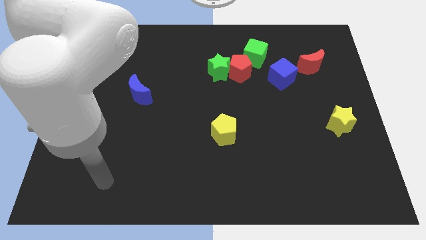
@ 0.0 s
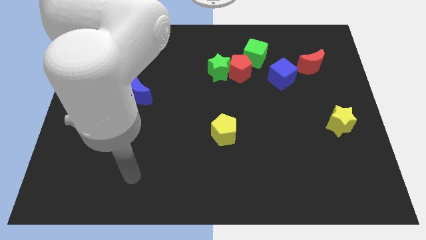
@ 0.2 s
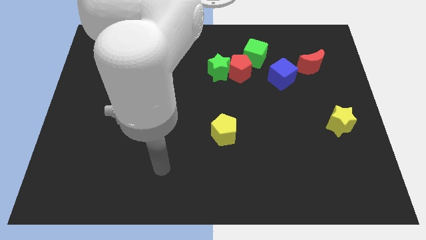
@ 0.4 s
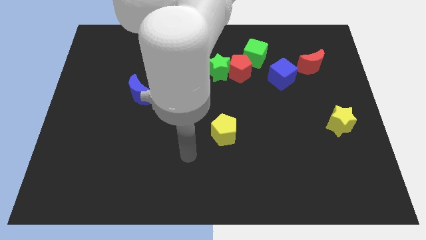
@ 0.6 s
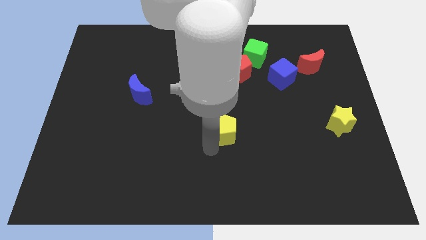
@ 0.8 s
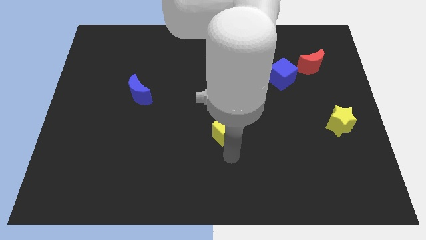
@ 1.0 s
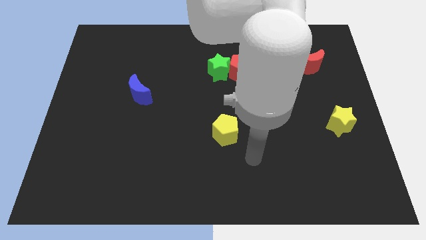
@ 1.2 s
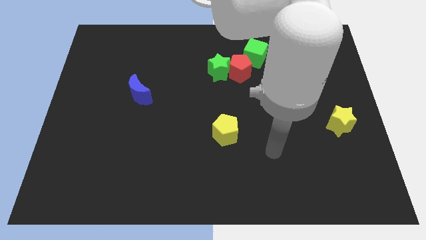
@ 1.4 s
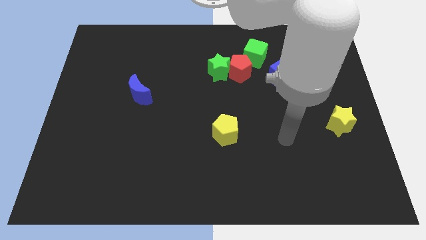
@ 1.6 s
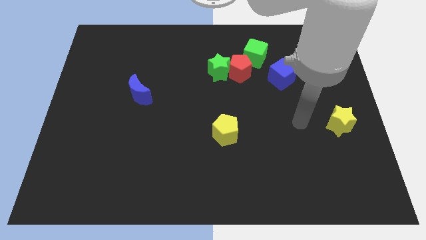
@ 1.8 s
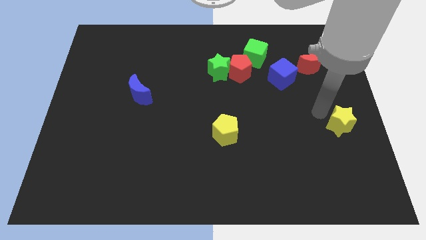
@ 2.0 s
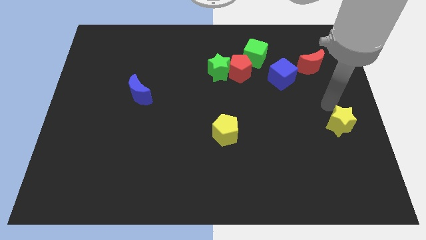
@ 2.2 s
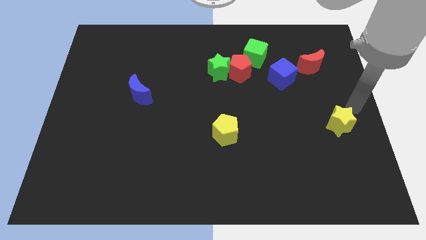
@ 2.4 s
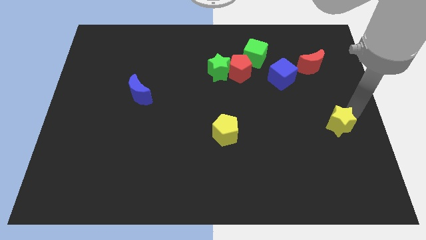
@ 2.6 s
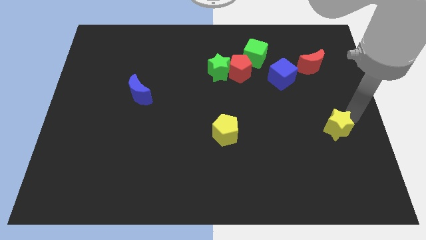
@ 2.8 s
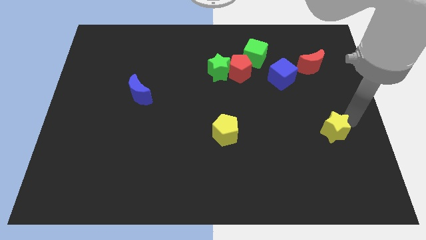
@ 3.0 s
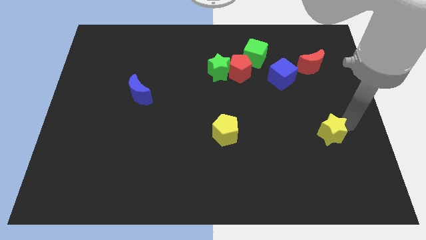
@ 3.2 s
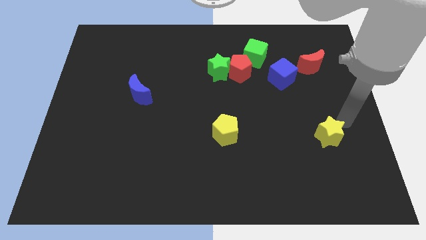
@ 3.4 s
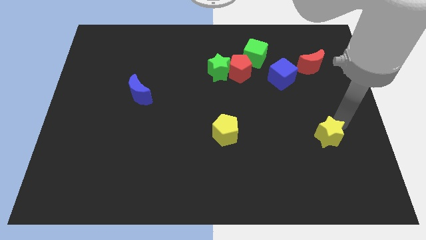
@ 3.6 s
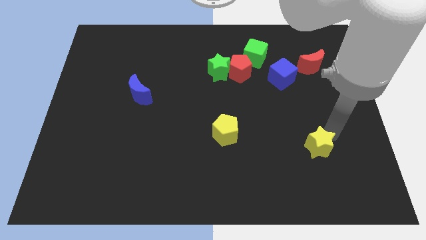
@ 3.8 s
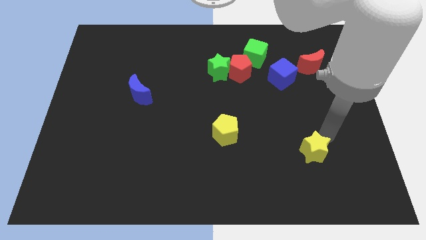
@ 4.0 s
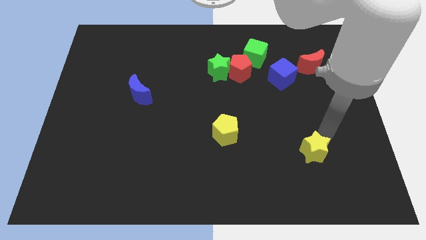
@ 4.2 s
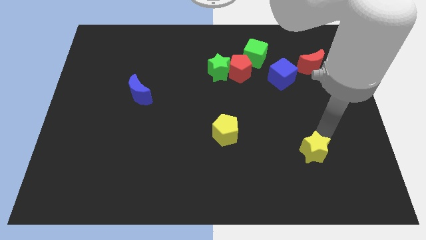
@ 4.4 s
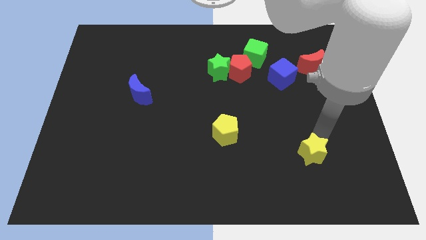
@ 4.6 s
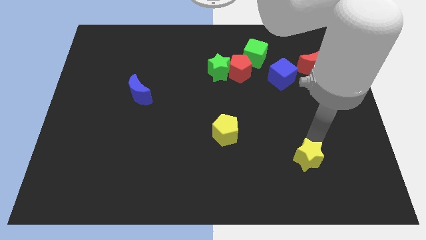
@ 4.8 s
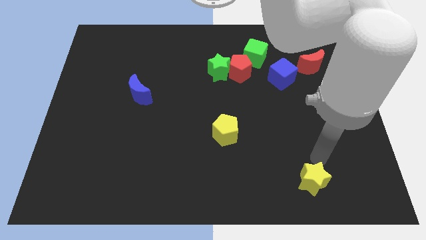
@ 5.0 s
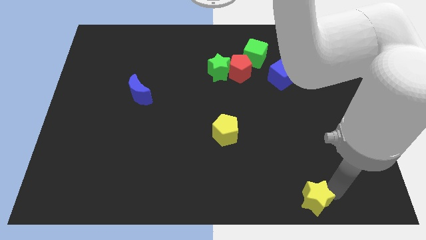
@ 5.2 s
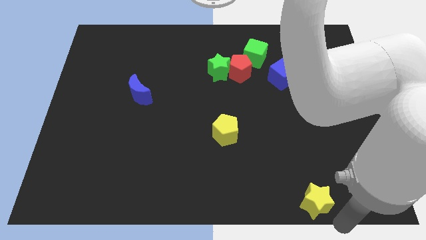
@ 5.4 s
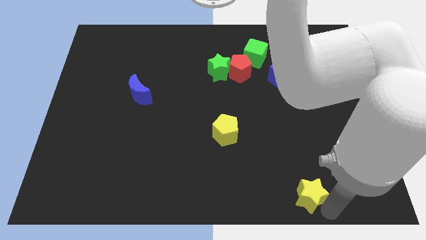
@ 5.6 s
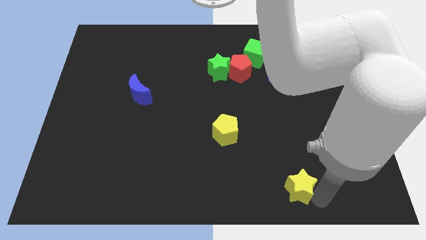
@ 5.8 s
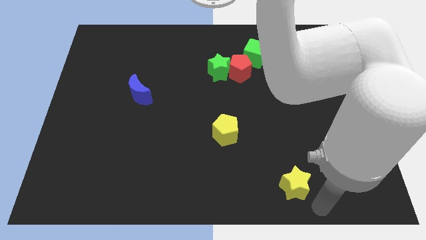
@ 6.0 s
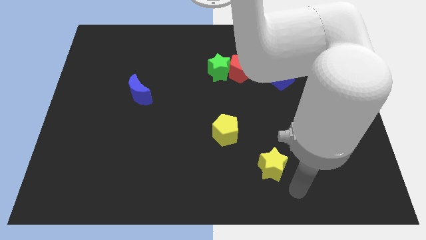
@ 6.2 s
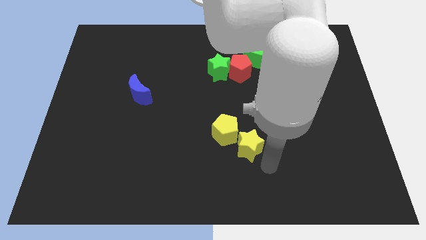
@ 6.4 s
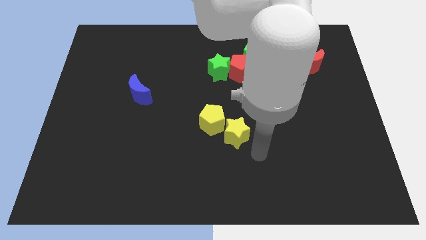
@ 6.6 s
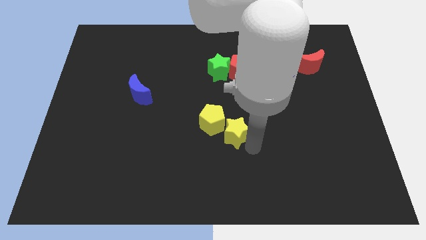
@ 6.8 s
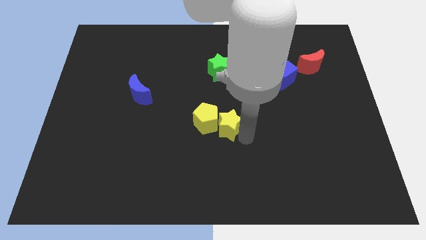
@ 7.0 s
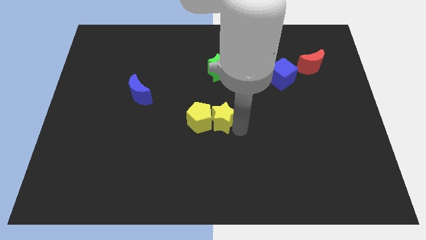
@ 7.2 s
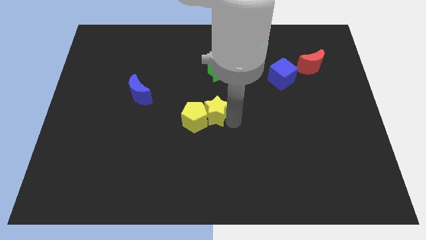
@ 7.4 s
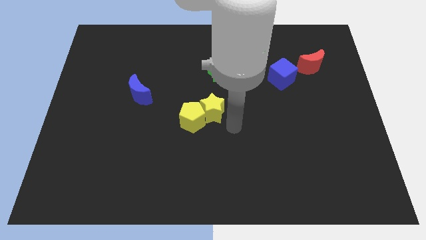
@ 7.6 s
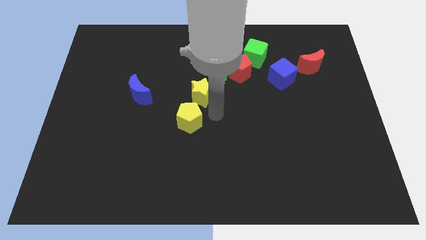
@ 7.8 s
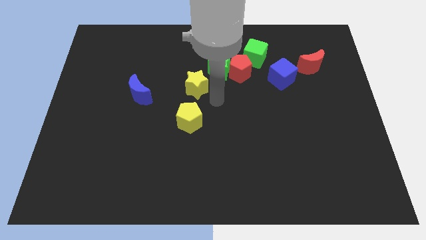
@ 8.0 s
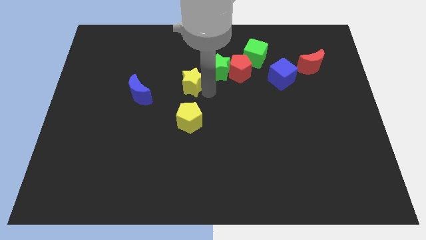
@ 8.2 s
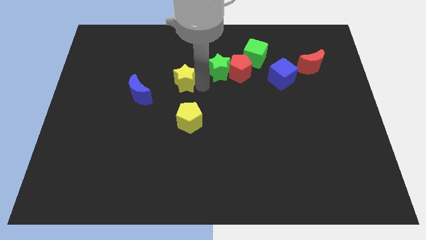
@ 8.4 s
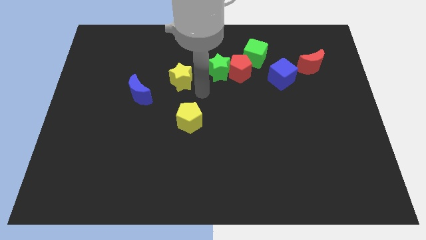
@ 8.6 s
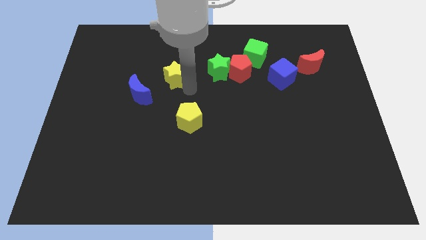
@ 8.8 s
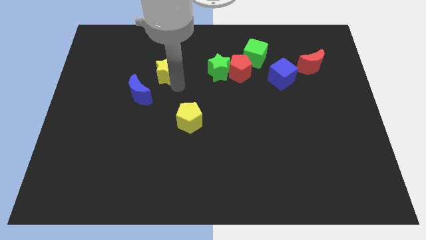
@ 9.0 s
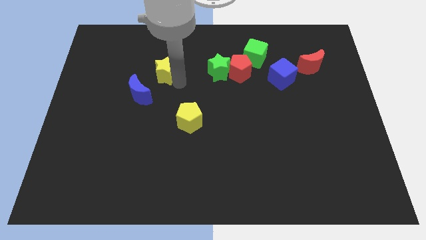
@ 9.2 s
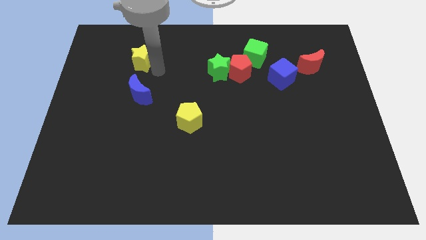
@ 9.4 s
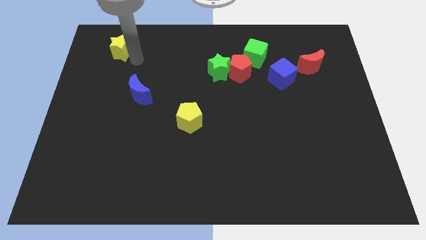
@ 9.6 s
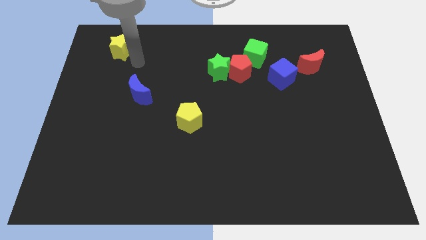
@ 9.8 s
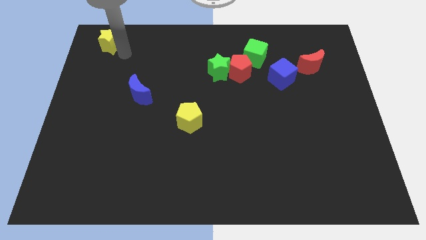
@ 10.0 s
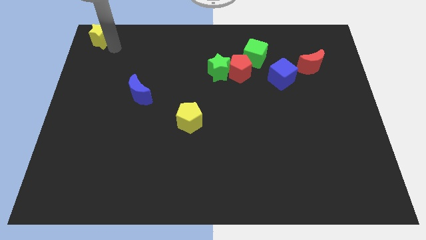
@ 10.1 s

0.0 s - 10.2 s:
push the yellow star to the top left corner
